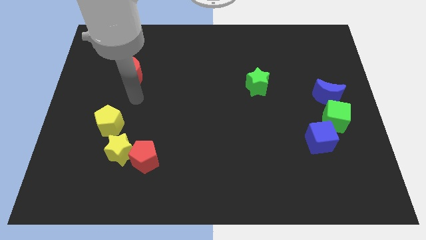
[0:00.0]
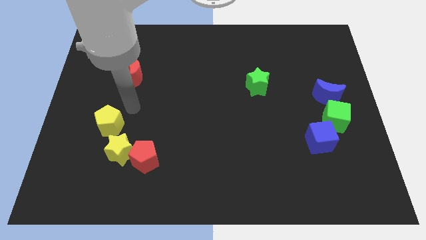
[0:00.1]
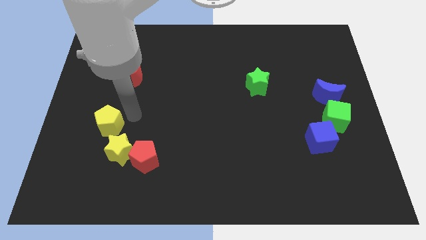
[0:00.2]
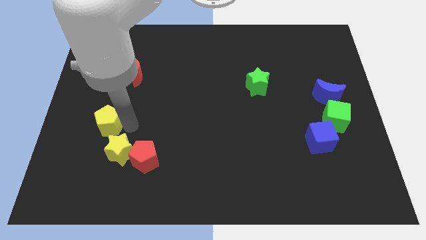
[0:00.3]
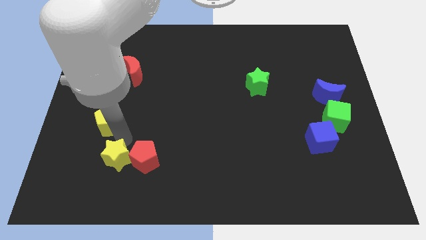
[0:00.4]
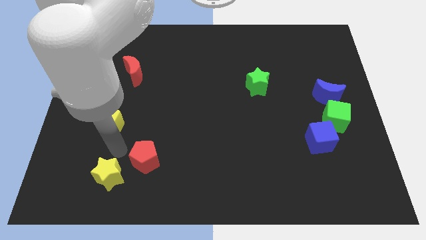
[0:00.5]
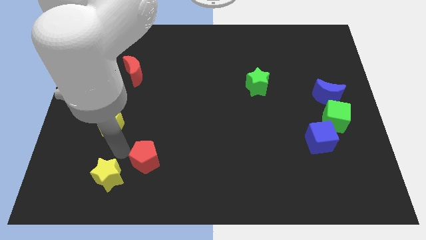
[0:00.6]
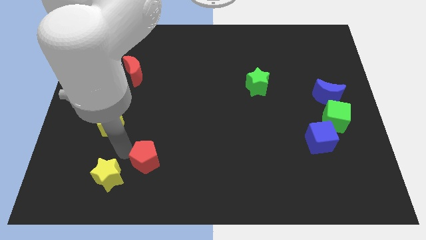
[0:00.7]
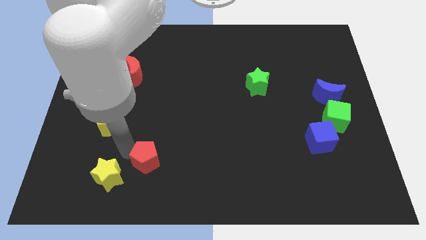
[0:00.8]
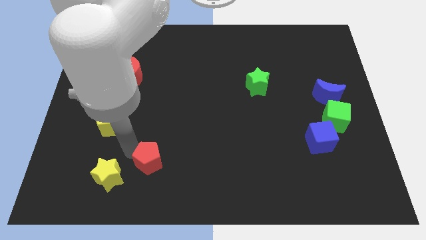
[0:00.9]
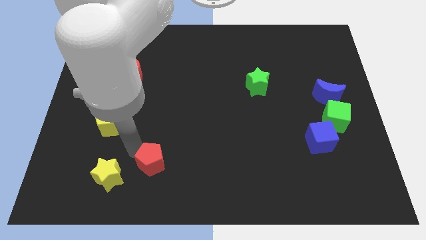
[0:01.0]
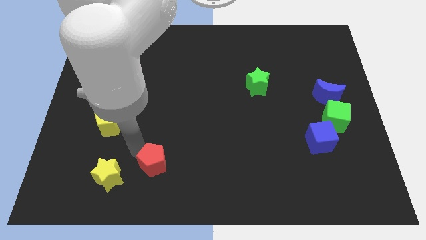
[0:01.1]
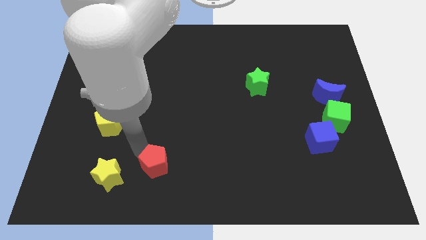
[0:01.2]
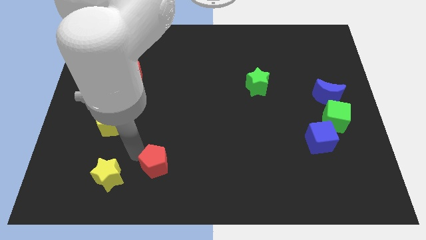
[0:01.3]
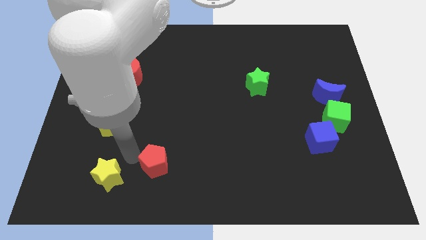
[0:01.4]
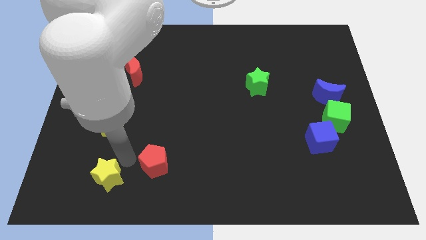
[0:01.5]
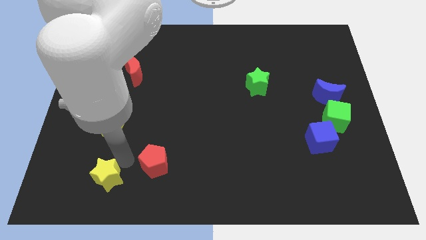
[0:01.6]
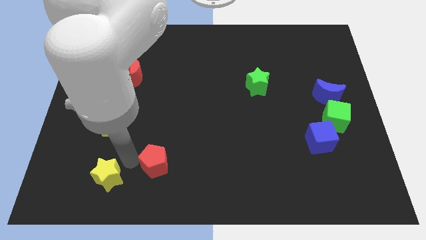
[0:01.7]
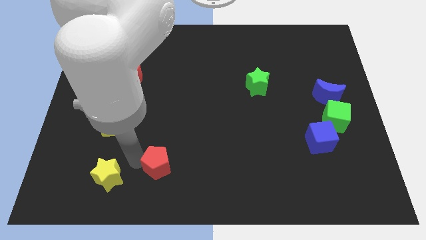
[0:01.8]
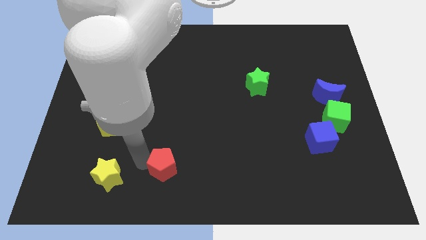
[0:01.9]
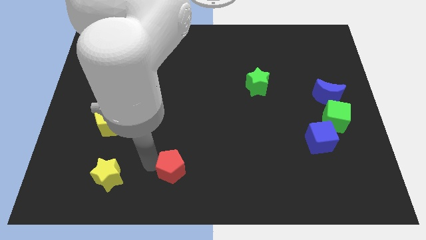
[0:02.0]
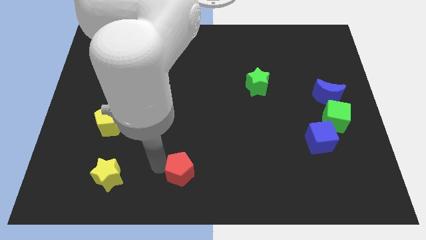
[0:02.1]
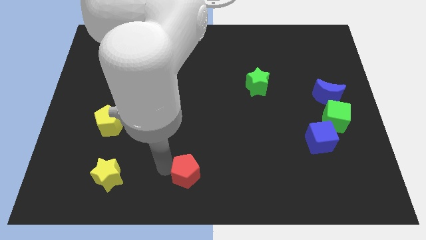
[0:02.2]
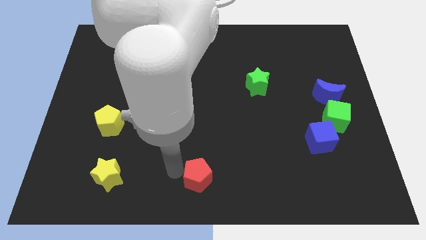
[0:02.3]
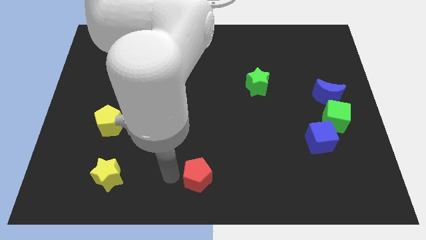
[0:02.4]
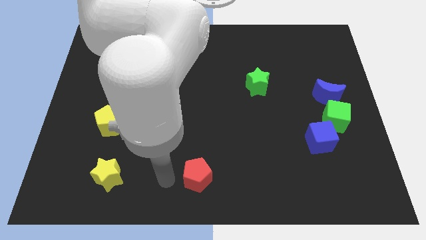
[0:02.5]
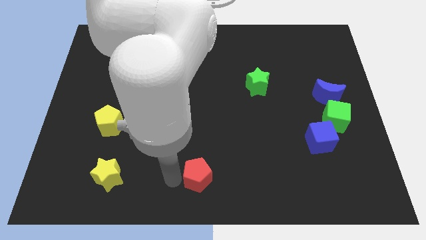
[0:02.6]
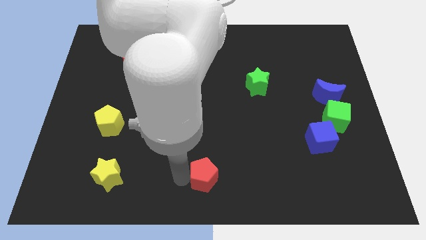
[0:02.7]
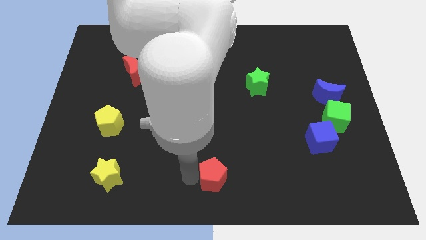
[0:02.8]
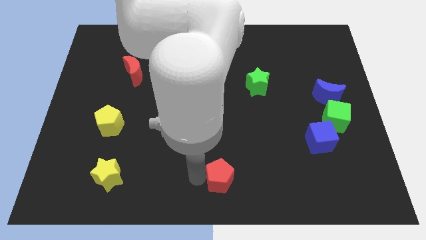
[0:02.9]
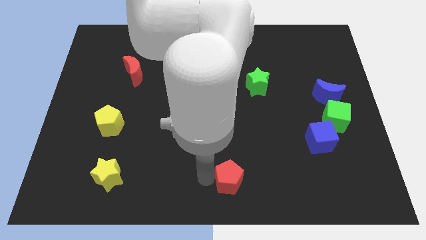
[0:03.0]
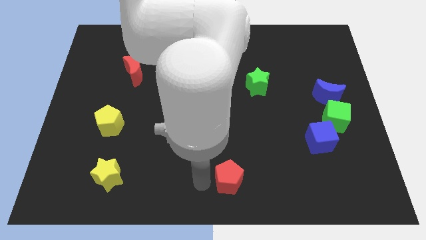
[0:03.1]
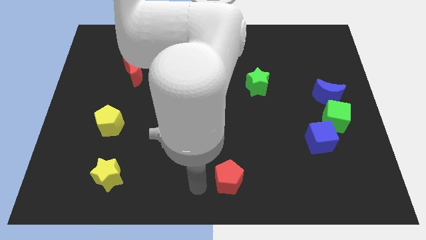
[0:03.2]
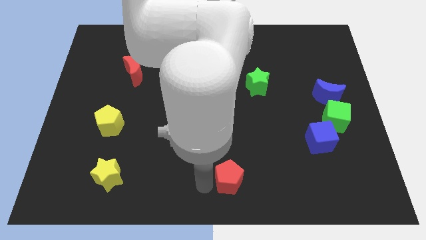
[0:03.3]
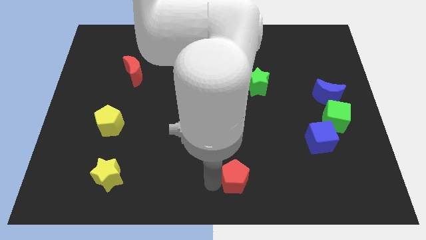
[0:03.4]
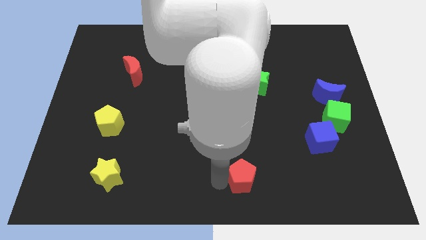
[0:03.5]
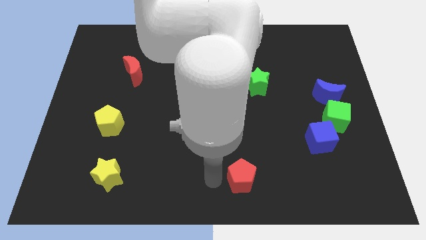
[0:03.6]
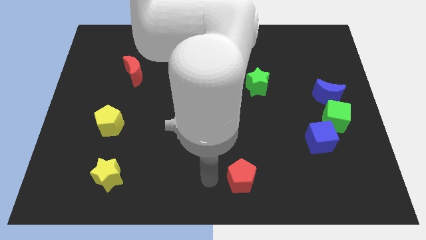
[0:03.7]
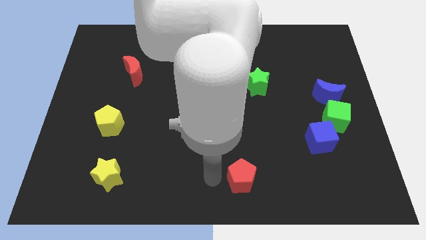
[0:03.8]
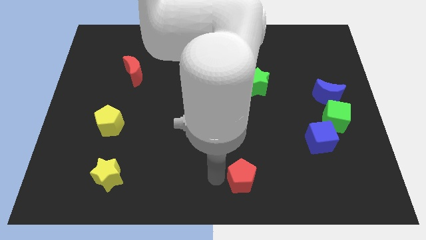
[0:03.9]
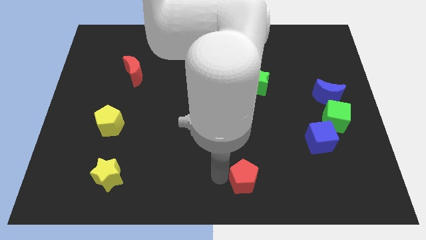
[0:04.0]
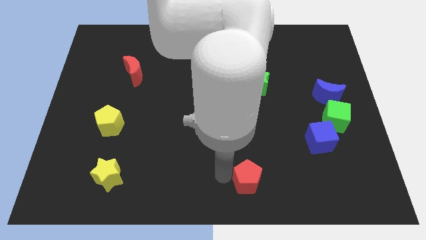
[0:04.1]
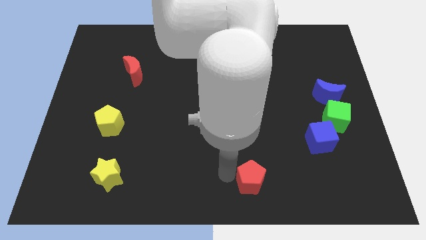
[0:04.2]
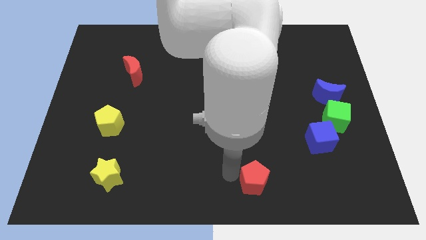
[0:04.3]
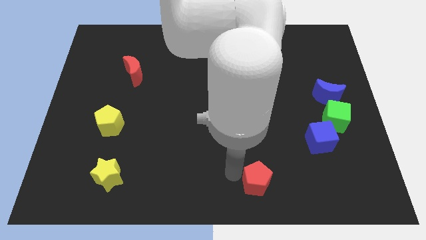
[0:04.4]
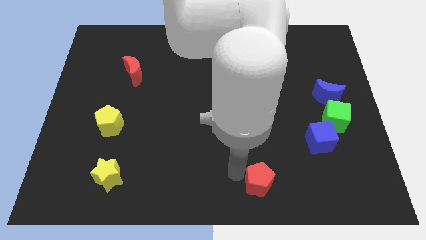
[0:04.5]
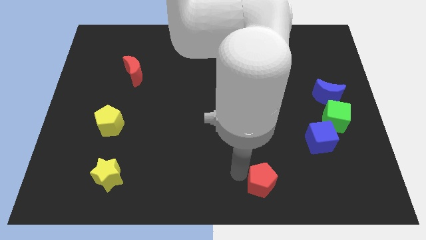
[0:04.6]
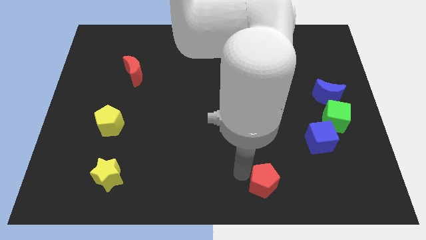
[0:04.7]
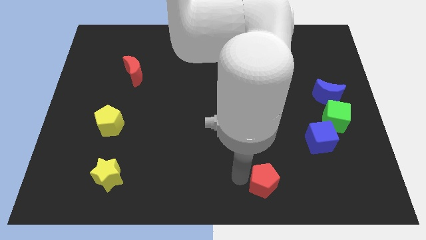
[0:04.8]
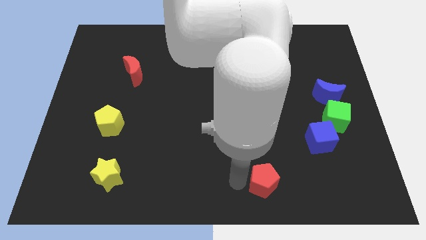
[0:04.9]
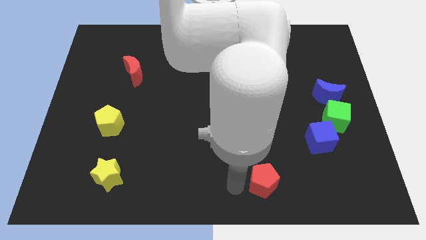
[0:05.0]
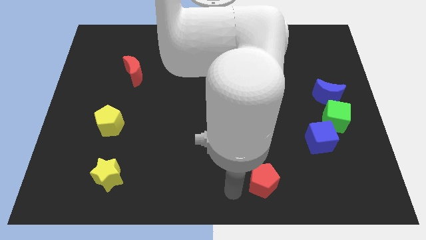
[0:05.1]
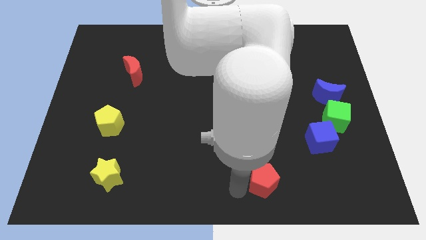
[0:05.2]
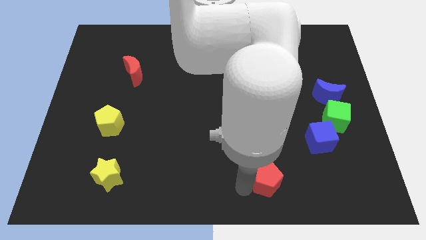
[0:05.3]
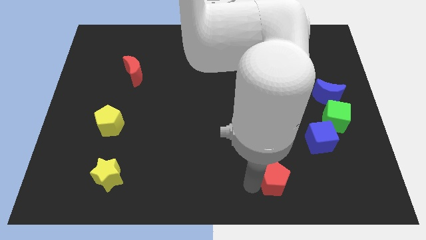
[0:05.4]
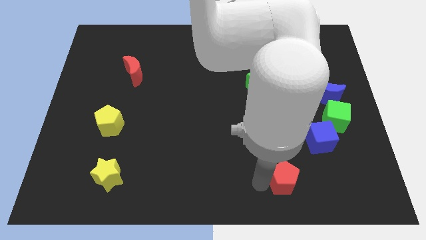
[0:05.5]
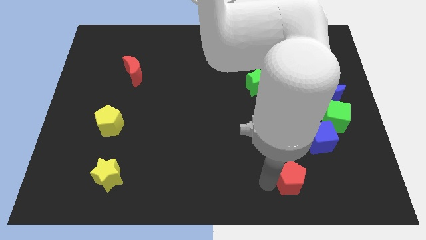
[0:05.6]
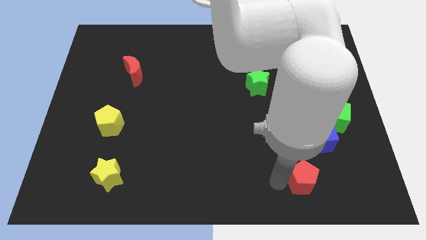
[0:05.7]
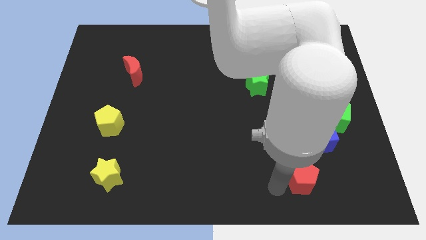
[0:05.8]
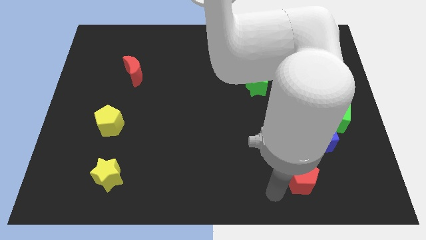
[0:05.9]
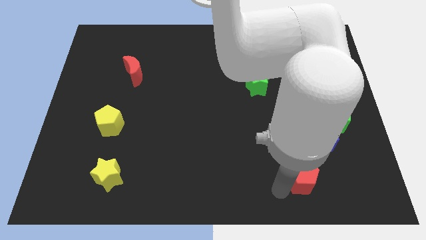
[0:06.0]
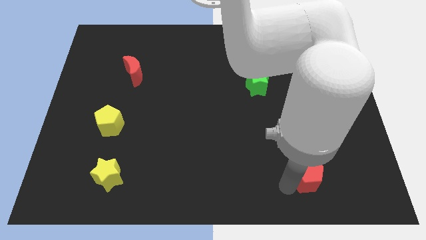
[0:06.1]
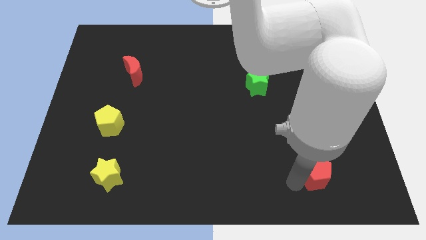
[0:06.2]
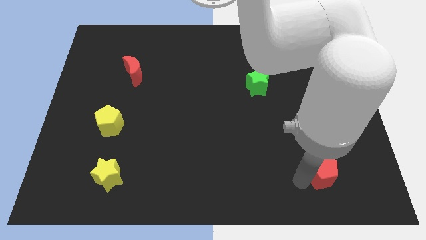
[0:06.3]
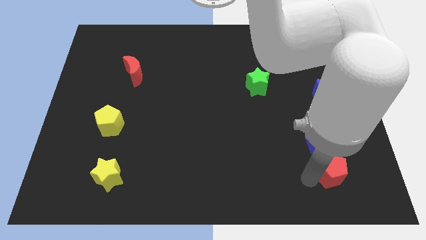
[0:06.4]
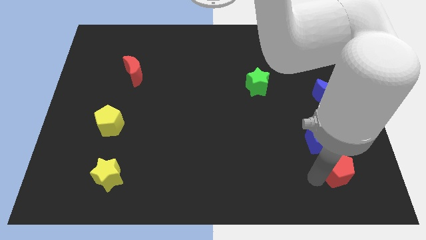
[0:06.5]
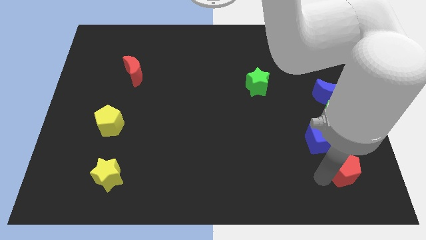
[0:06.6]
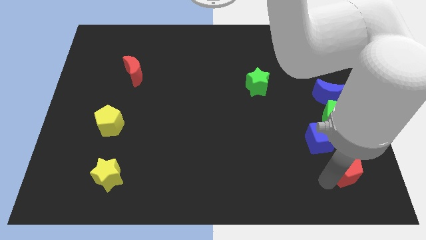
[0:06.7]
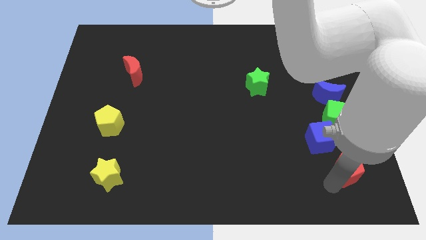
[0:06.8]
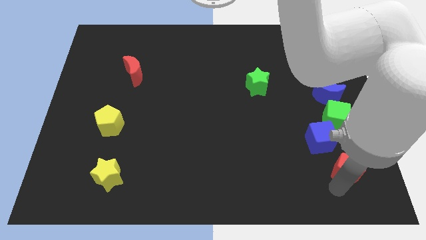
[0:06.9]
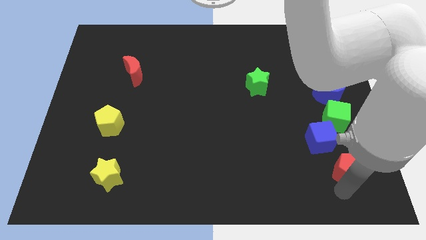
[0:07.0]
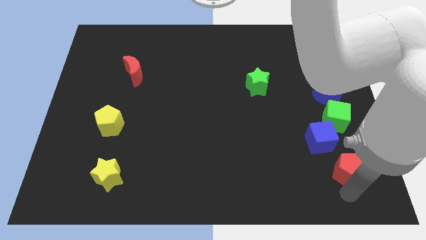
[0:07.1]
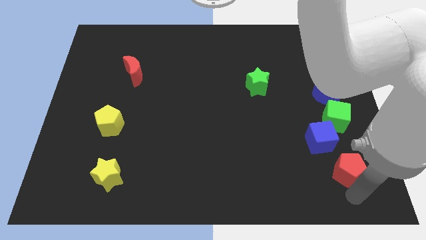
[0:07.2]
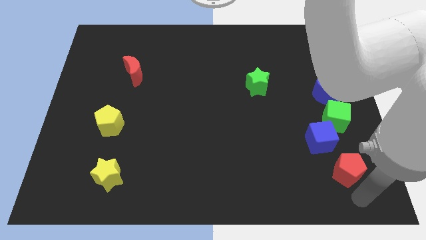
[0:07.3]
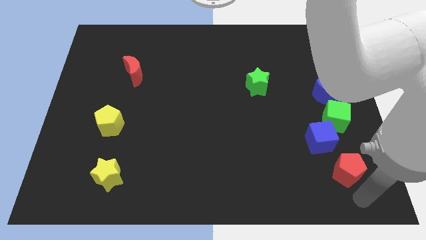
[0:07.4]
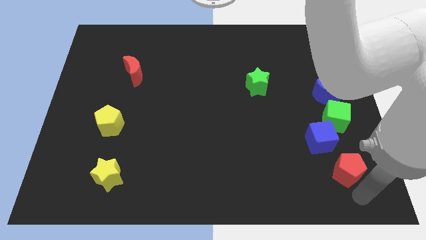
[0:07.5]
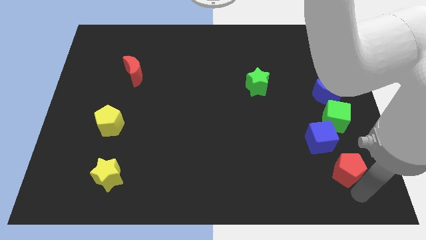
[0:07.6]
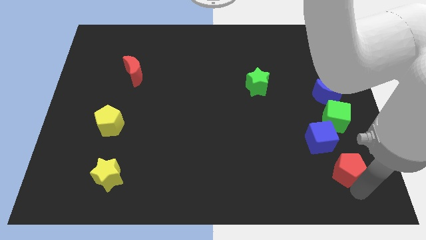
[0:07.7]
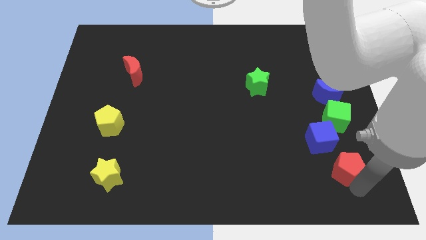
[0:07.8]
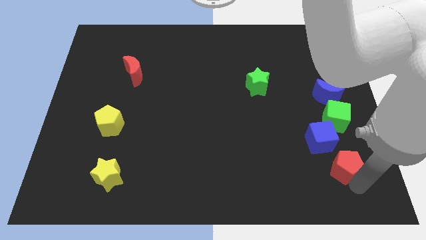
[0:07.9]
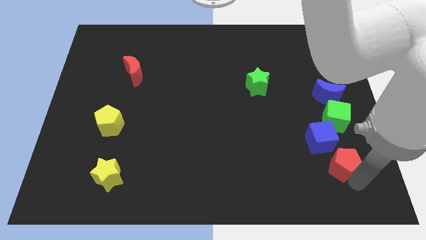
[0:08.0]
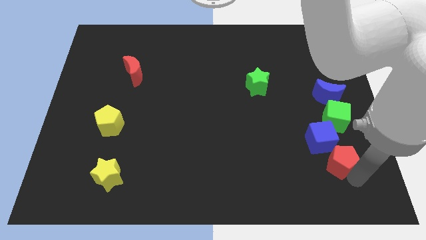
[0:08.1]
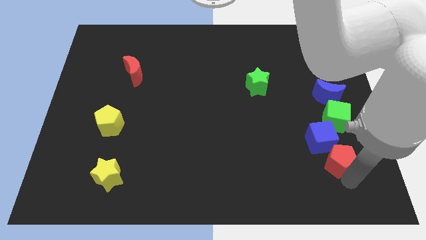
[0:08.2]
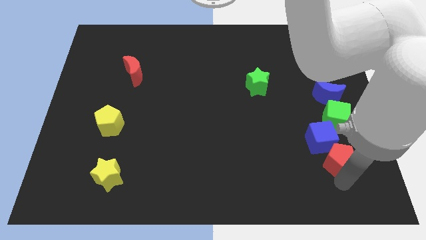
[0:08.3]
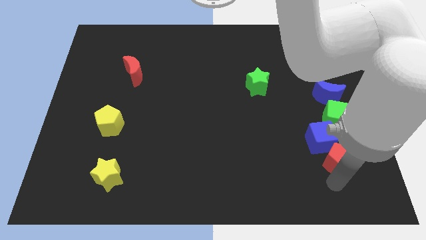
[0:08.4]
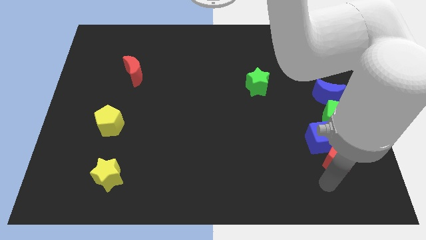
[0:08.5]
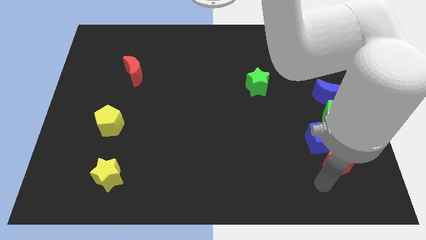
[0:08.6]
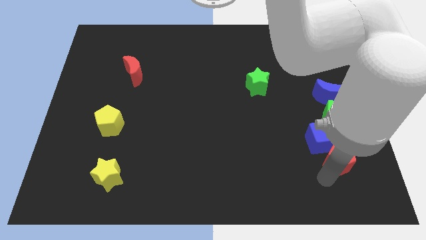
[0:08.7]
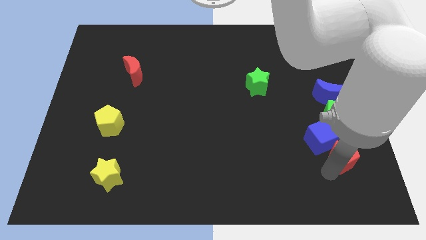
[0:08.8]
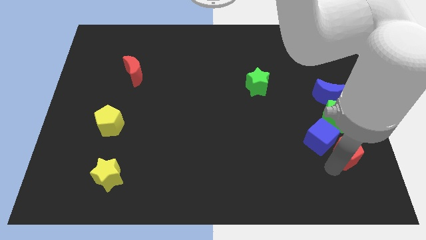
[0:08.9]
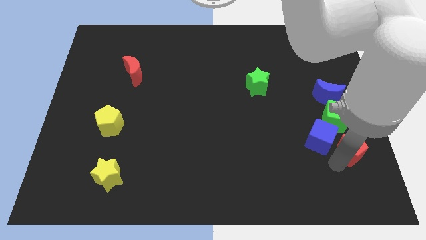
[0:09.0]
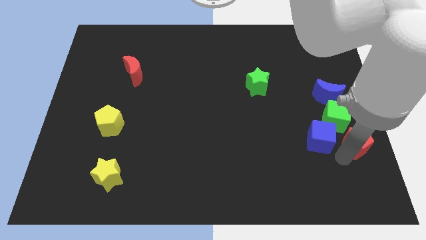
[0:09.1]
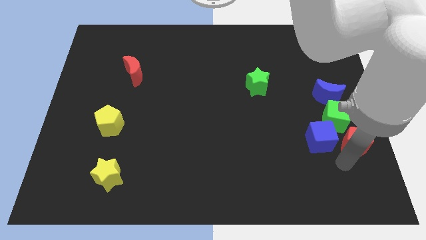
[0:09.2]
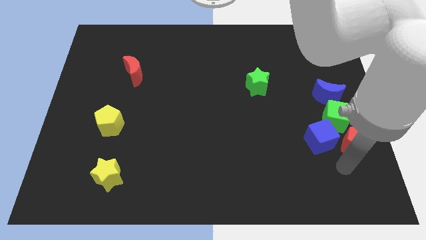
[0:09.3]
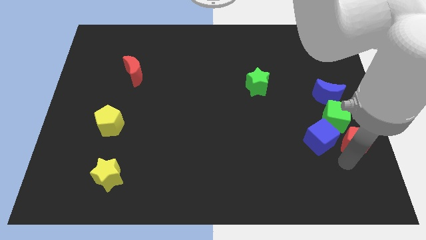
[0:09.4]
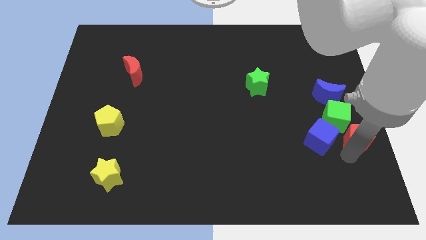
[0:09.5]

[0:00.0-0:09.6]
push the red pentagon to the right side
